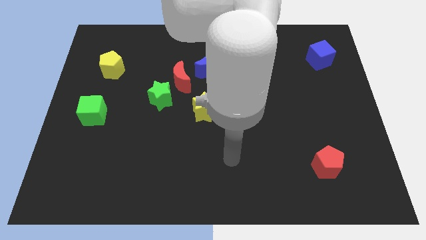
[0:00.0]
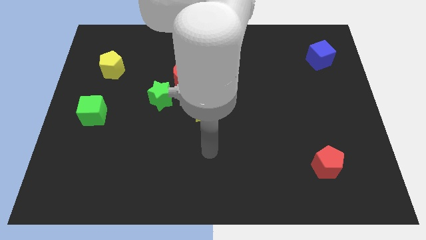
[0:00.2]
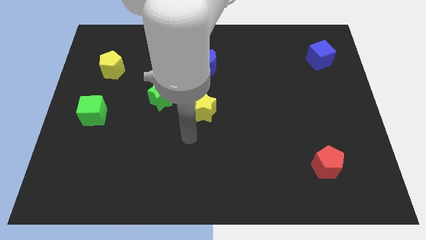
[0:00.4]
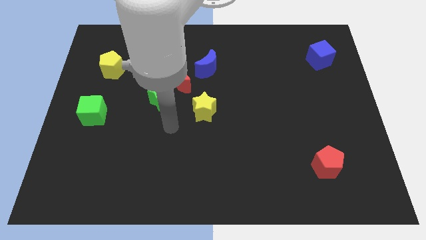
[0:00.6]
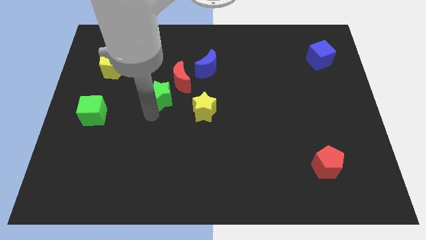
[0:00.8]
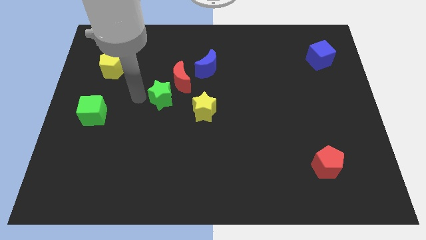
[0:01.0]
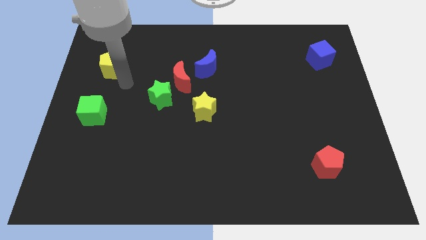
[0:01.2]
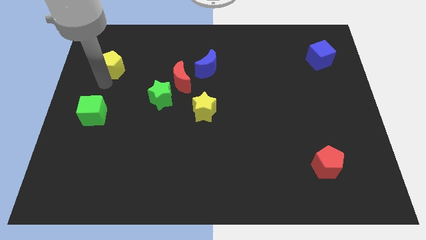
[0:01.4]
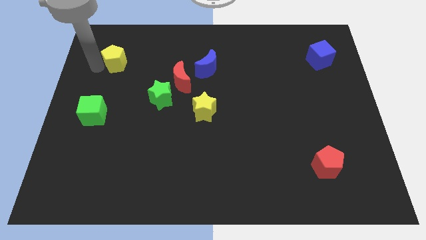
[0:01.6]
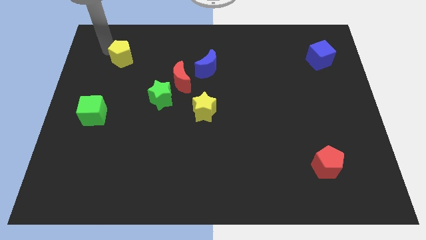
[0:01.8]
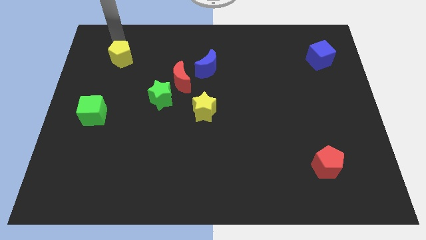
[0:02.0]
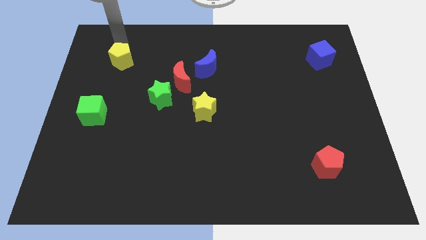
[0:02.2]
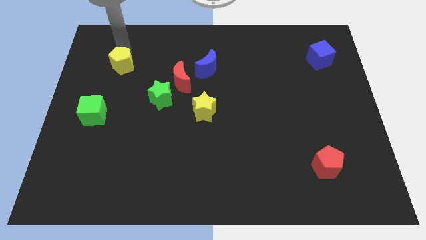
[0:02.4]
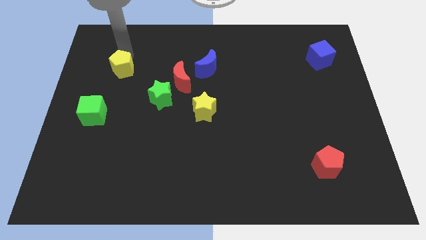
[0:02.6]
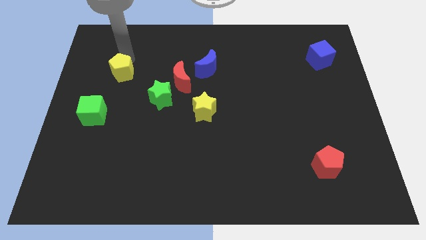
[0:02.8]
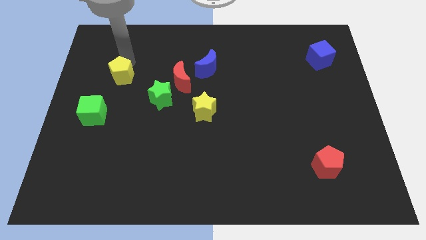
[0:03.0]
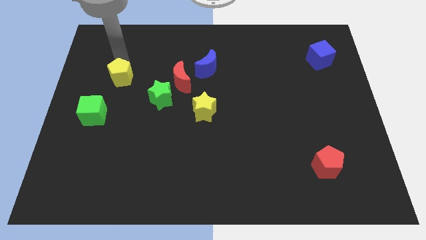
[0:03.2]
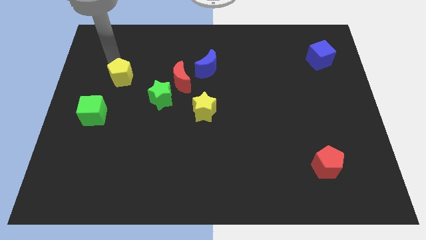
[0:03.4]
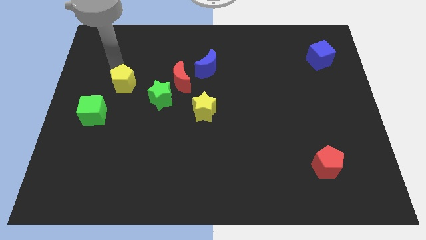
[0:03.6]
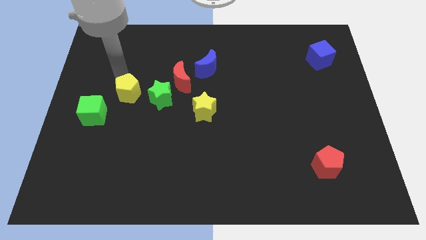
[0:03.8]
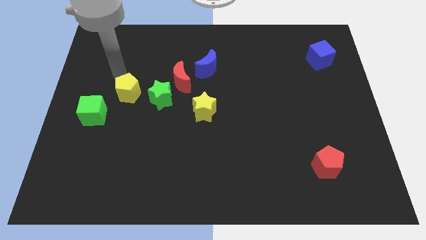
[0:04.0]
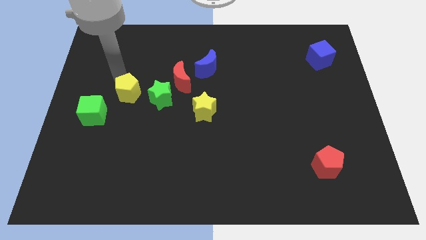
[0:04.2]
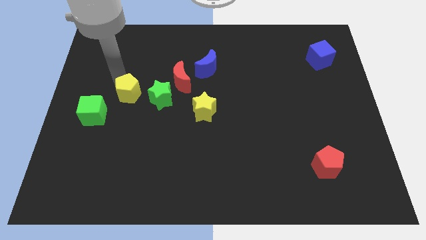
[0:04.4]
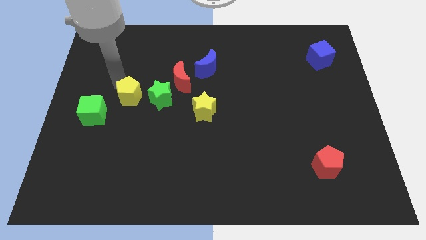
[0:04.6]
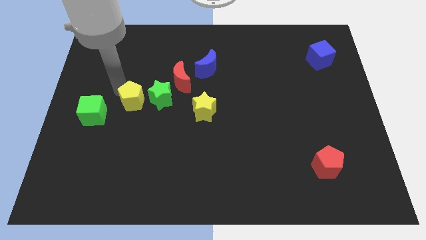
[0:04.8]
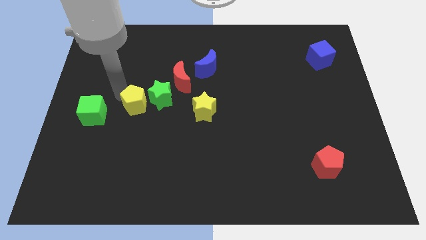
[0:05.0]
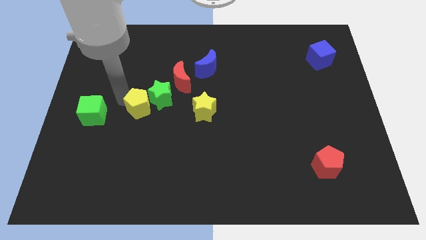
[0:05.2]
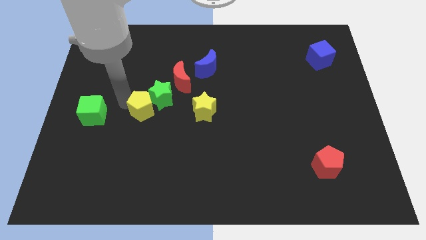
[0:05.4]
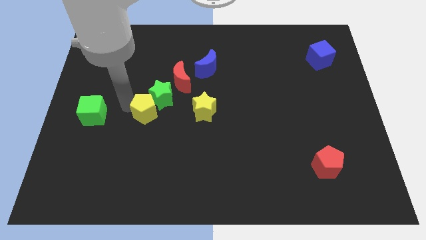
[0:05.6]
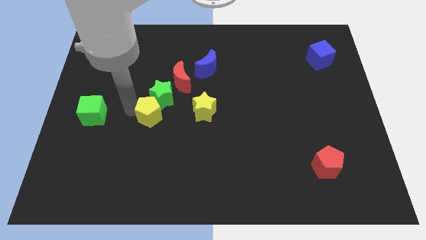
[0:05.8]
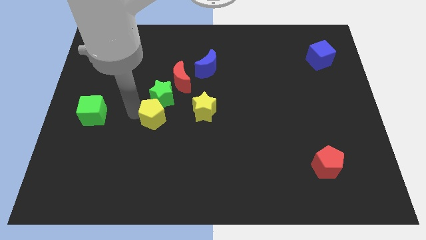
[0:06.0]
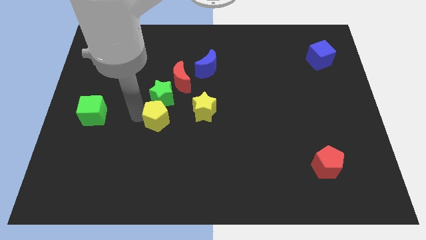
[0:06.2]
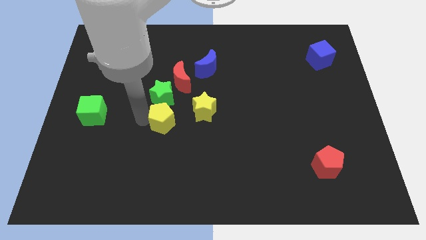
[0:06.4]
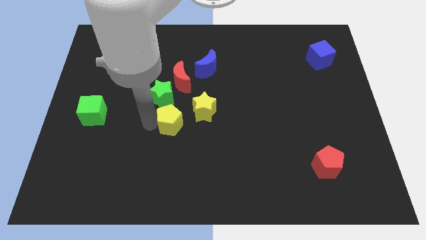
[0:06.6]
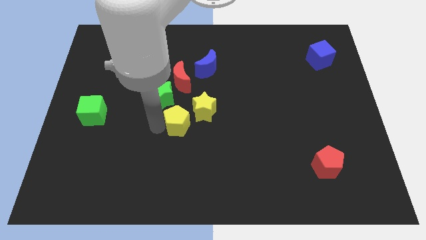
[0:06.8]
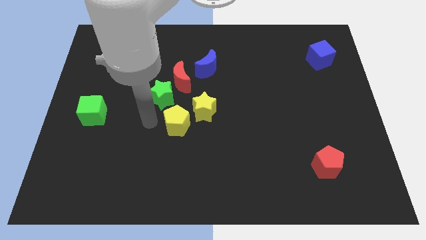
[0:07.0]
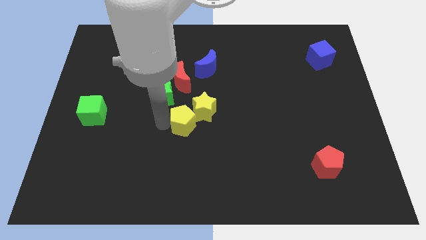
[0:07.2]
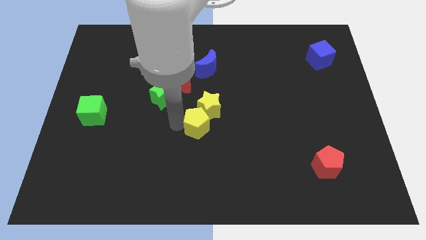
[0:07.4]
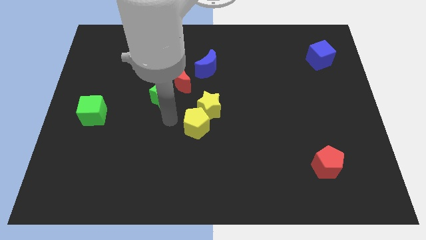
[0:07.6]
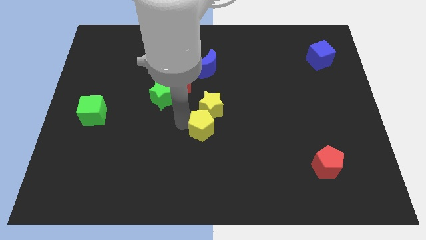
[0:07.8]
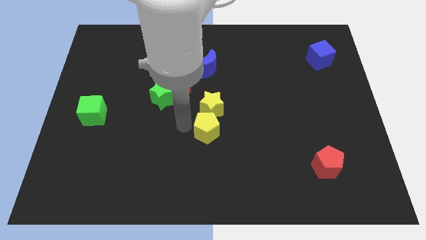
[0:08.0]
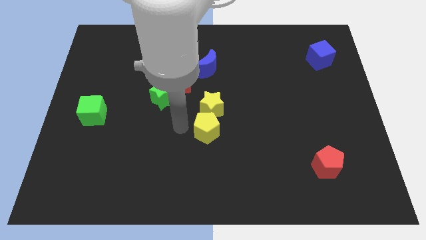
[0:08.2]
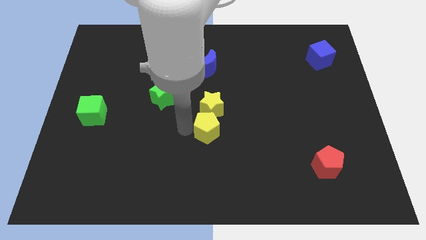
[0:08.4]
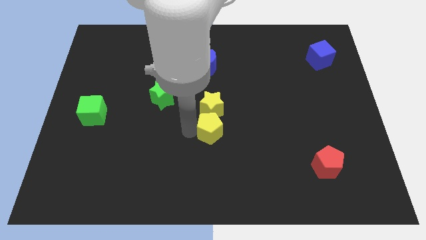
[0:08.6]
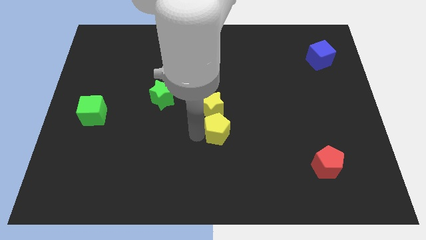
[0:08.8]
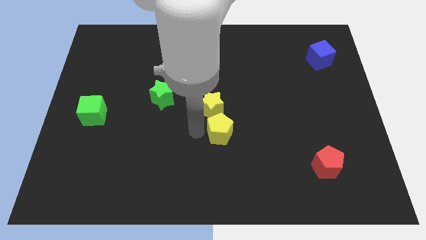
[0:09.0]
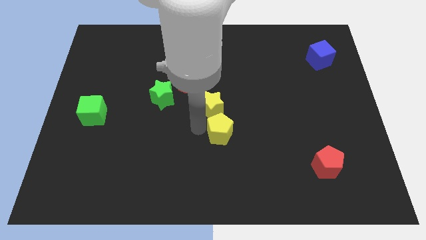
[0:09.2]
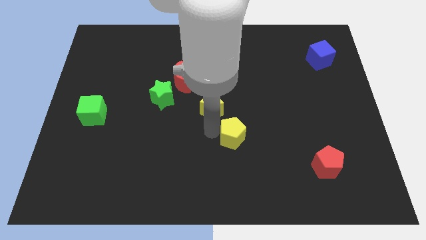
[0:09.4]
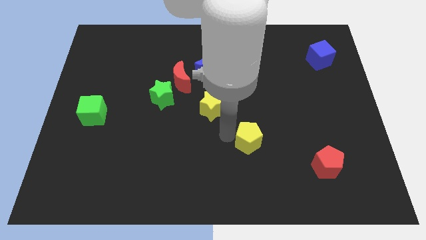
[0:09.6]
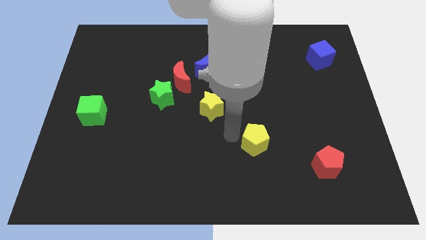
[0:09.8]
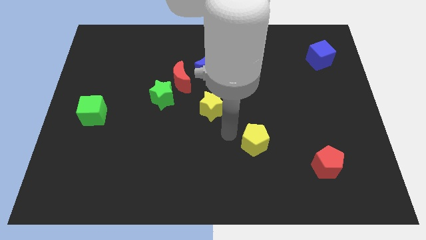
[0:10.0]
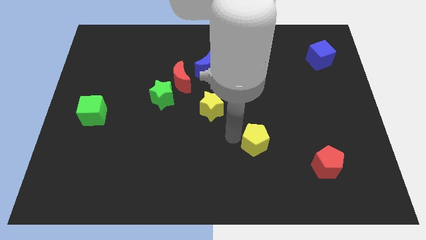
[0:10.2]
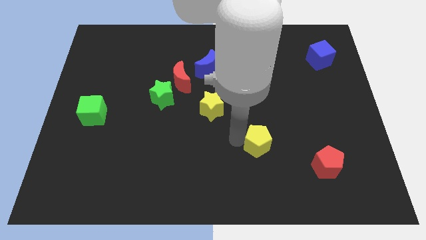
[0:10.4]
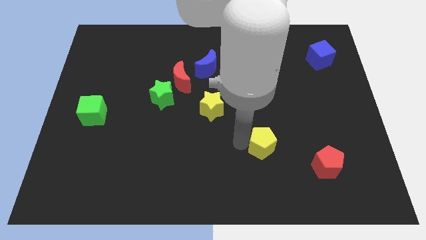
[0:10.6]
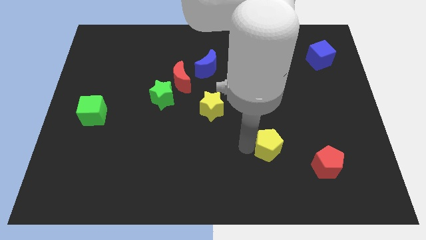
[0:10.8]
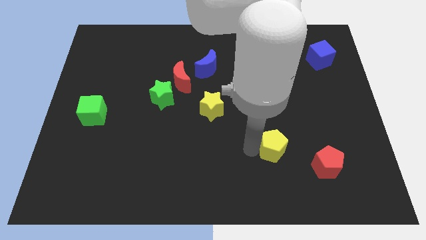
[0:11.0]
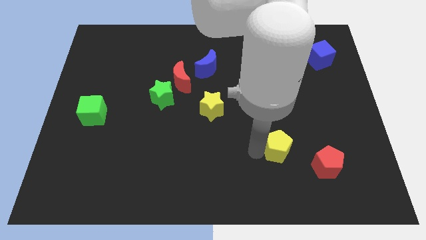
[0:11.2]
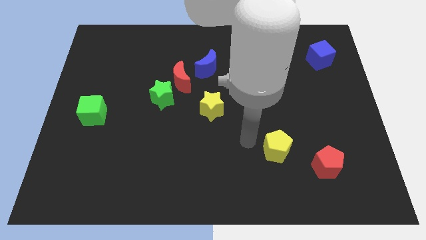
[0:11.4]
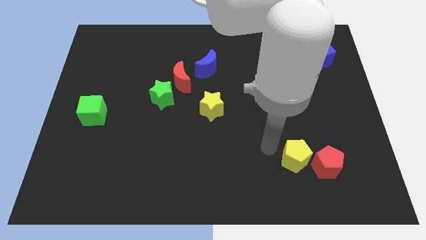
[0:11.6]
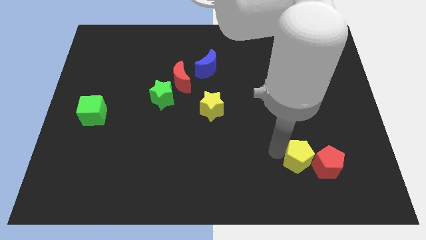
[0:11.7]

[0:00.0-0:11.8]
slide the yellow pentagon next to the red pentagon
